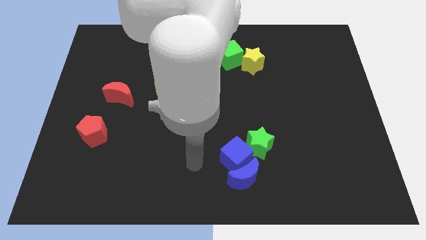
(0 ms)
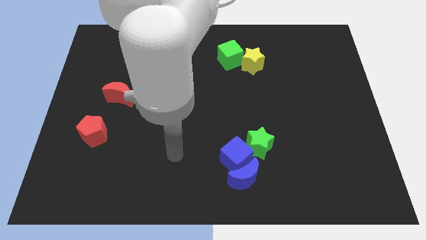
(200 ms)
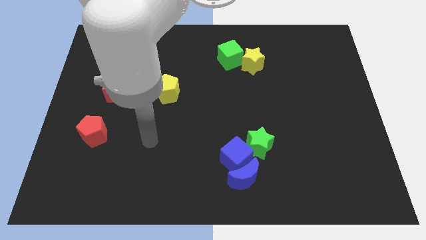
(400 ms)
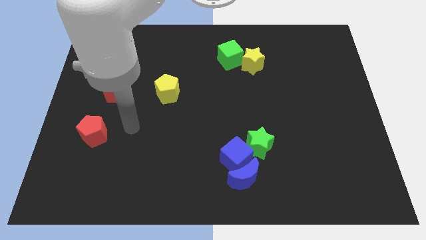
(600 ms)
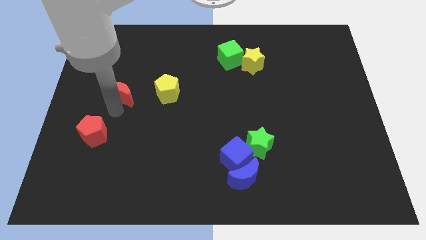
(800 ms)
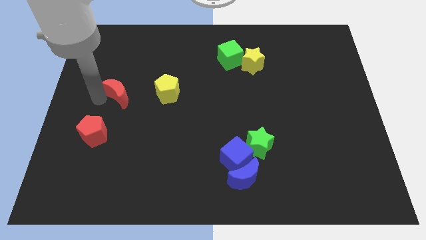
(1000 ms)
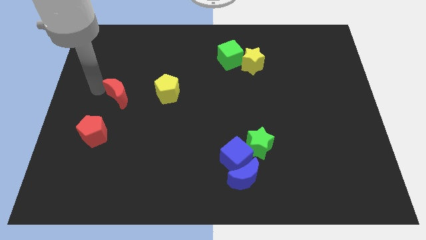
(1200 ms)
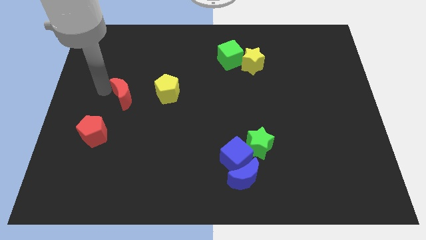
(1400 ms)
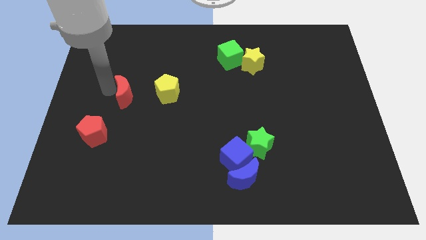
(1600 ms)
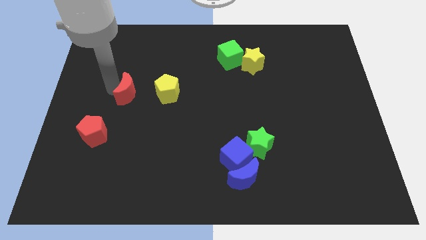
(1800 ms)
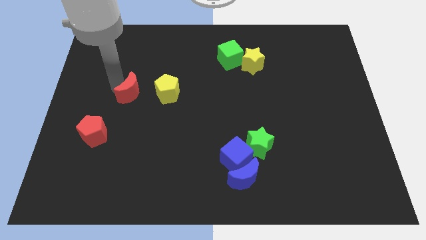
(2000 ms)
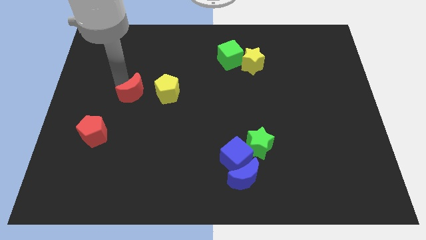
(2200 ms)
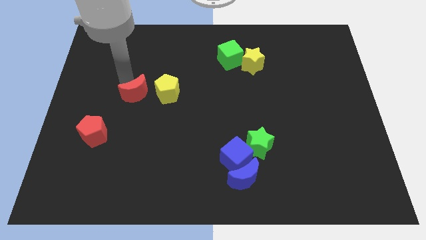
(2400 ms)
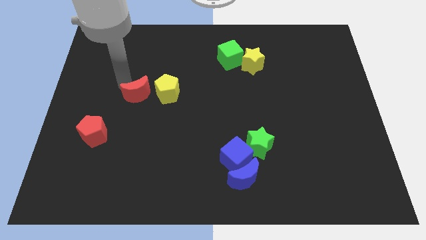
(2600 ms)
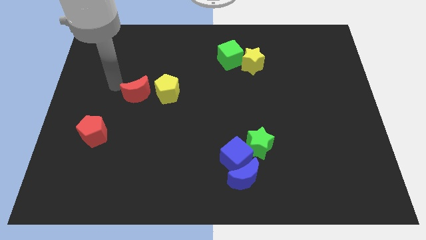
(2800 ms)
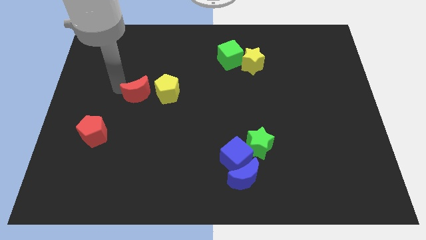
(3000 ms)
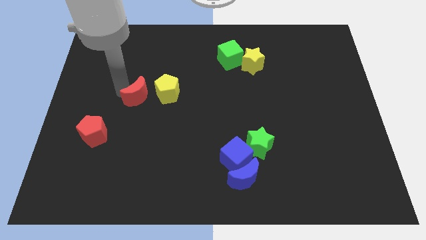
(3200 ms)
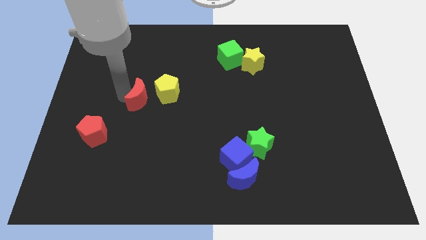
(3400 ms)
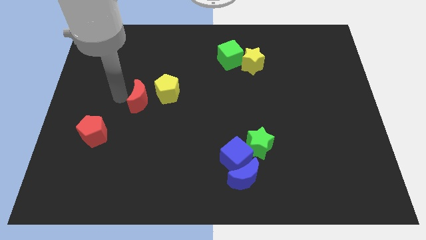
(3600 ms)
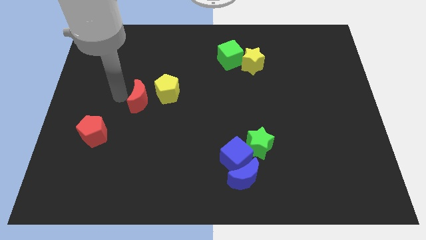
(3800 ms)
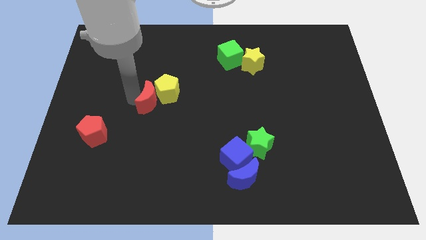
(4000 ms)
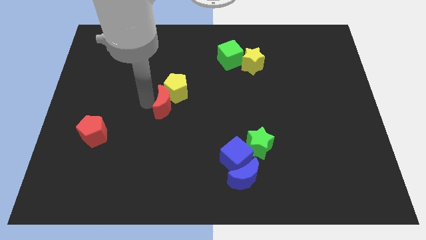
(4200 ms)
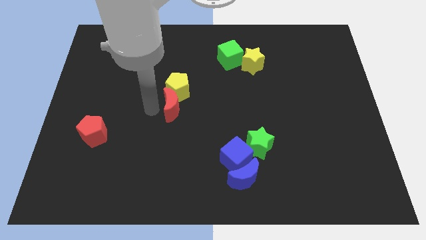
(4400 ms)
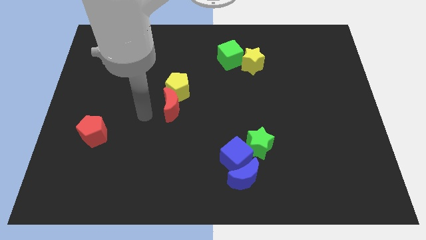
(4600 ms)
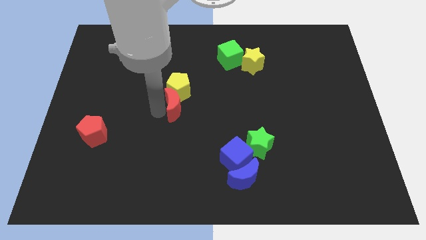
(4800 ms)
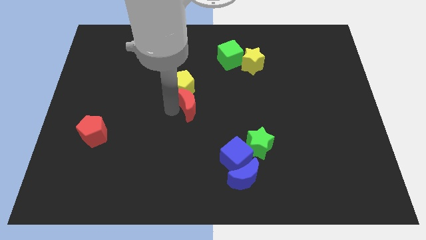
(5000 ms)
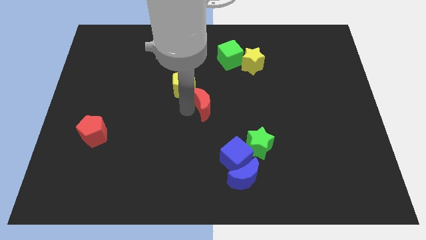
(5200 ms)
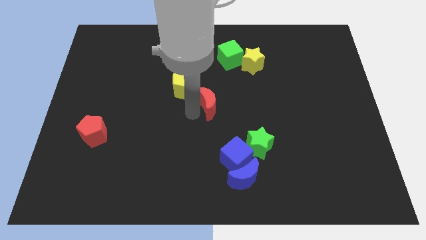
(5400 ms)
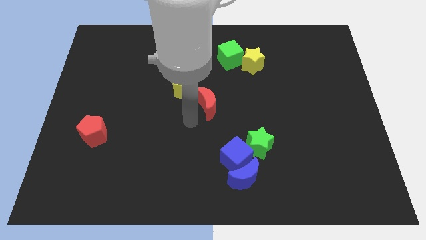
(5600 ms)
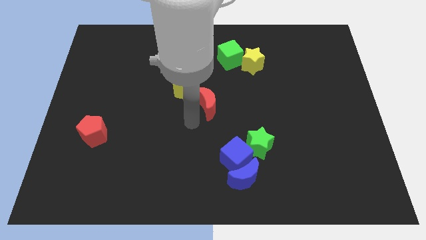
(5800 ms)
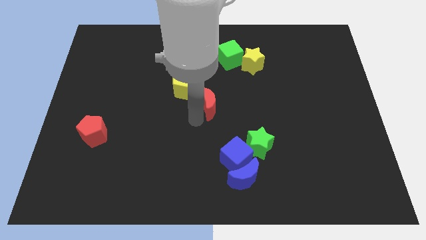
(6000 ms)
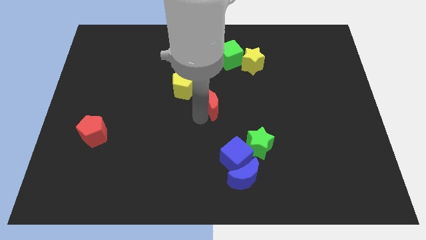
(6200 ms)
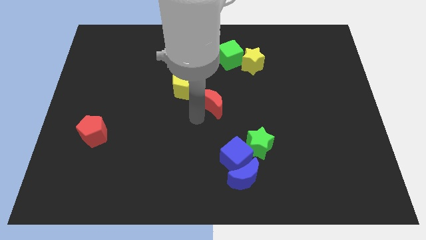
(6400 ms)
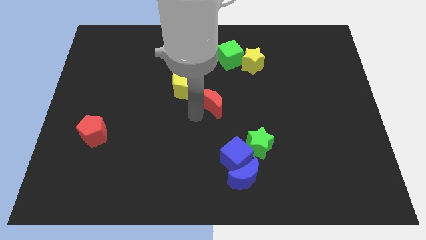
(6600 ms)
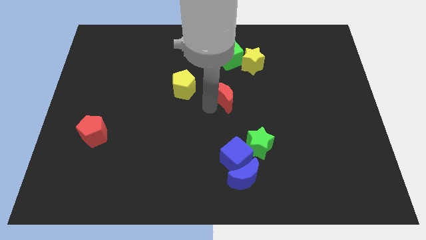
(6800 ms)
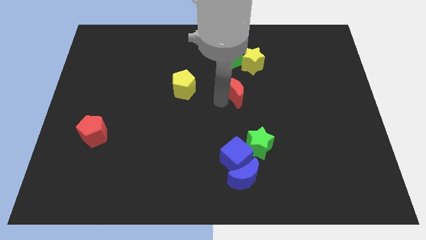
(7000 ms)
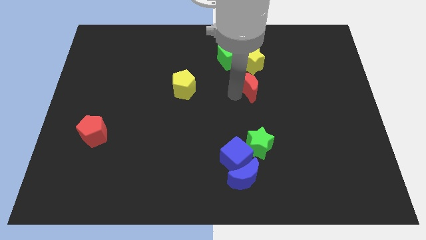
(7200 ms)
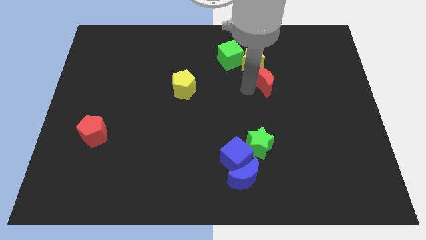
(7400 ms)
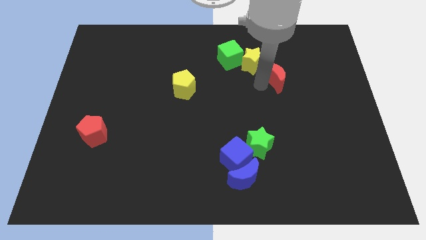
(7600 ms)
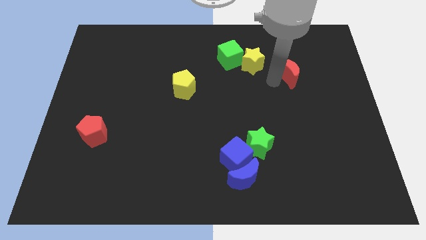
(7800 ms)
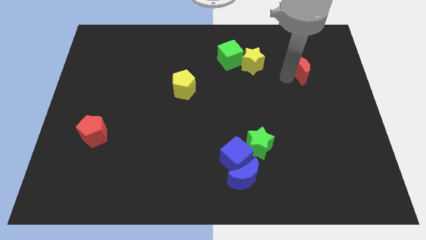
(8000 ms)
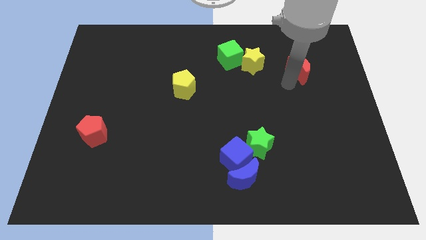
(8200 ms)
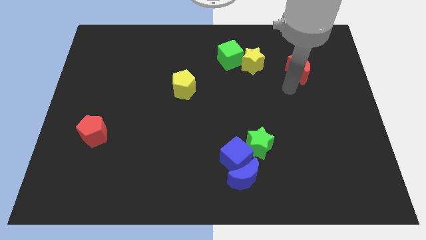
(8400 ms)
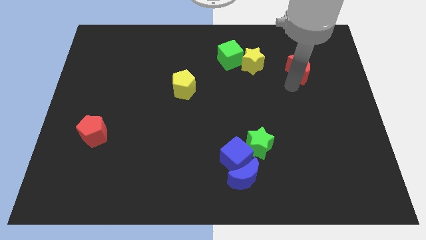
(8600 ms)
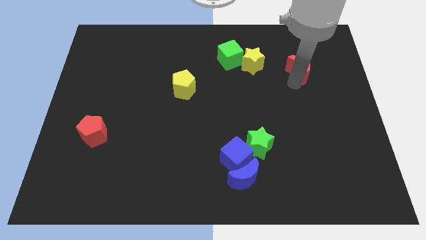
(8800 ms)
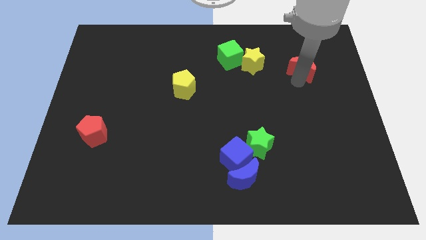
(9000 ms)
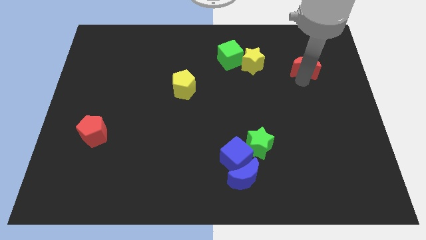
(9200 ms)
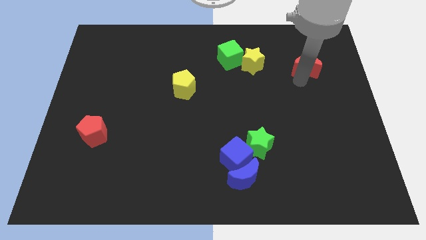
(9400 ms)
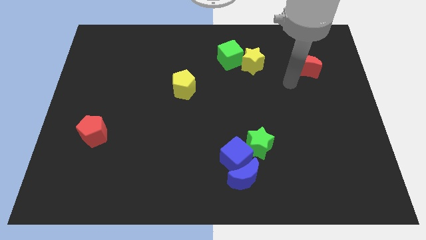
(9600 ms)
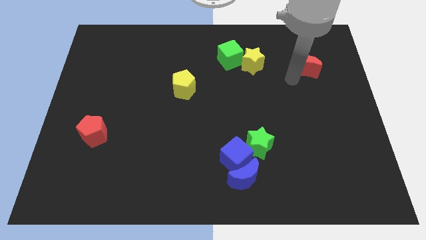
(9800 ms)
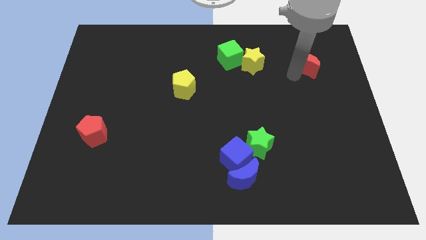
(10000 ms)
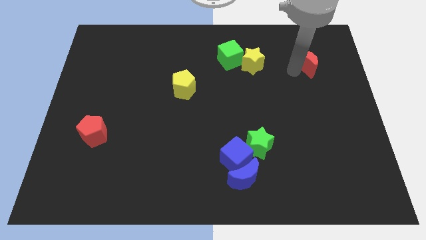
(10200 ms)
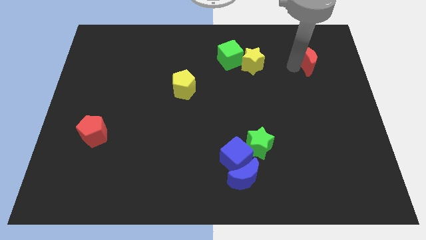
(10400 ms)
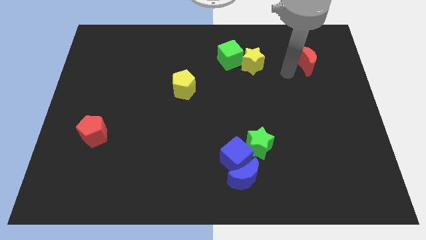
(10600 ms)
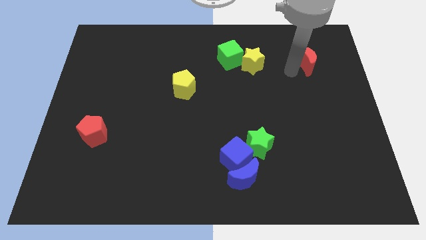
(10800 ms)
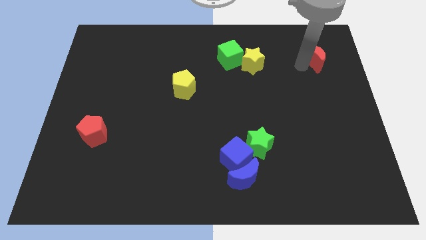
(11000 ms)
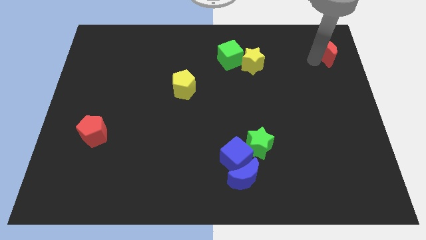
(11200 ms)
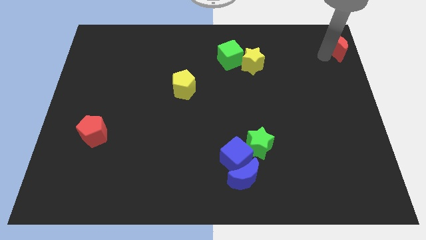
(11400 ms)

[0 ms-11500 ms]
put the red moon to the top right corner

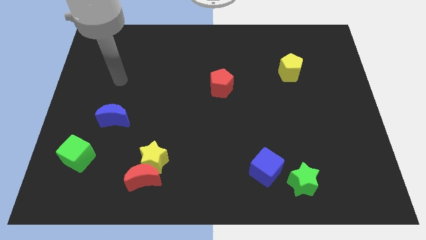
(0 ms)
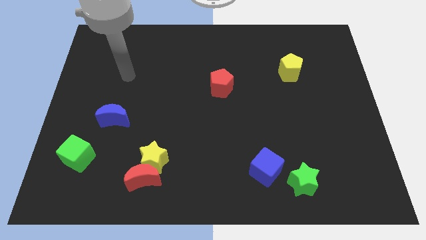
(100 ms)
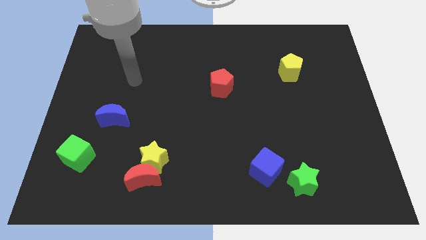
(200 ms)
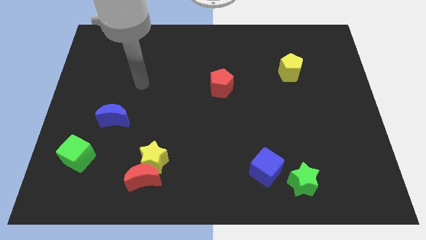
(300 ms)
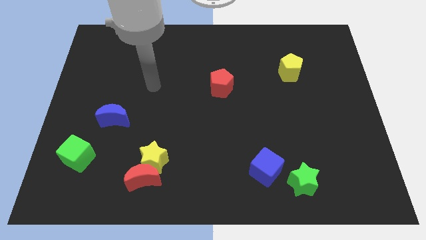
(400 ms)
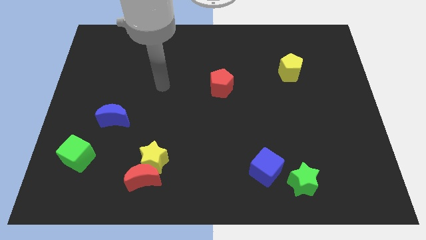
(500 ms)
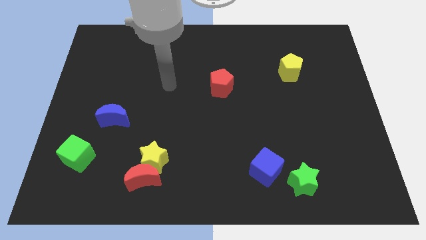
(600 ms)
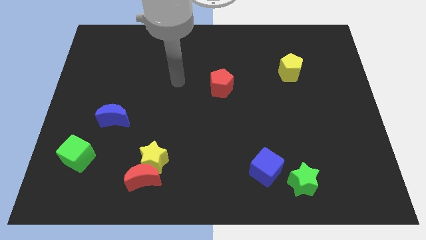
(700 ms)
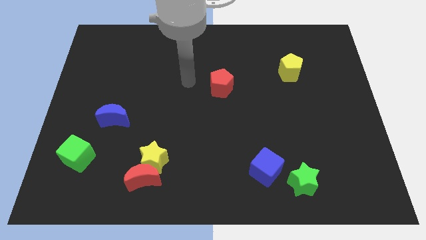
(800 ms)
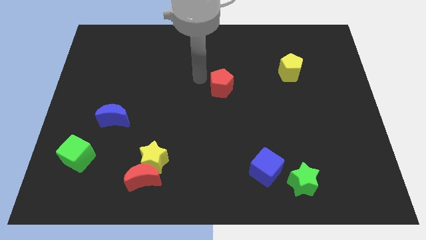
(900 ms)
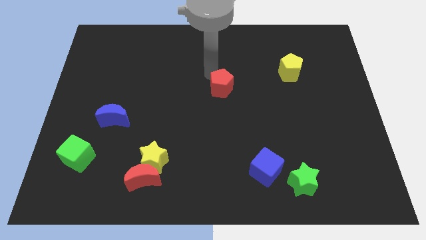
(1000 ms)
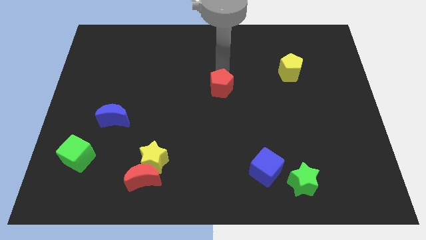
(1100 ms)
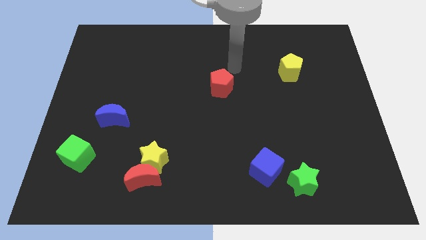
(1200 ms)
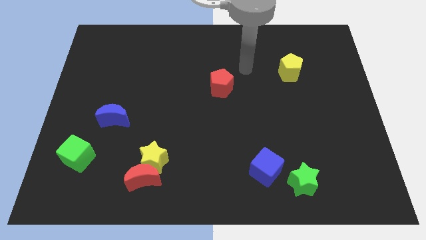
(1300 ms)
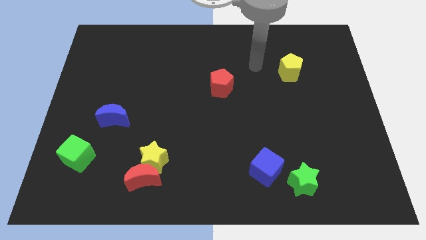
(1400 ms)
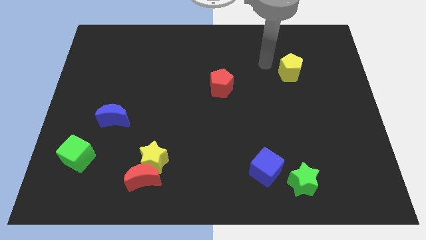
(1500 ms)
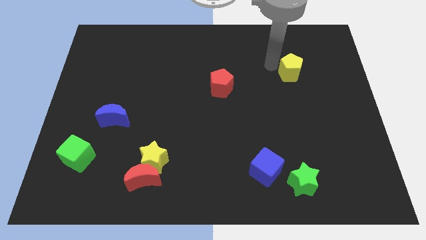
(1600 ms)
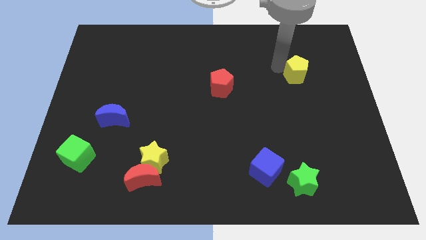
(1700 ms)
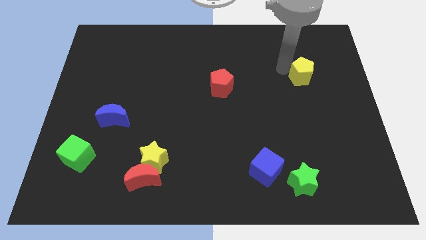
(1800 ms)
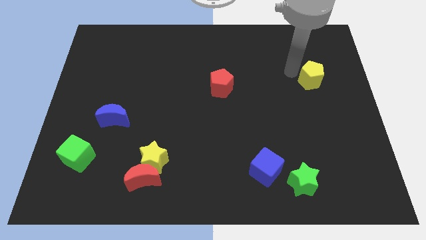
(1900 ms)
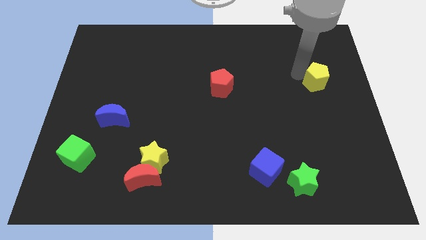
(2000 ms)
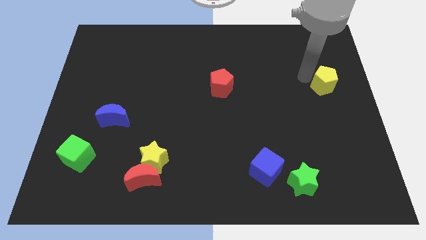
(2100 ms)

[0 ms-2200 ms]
put the yellow pentagon to the right side of the board
